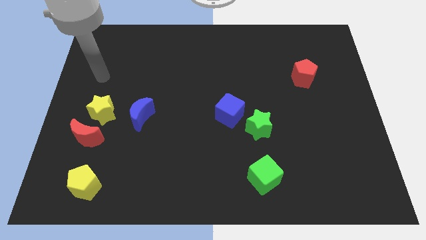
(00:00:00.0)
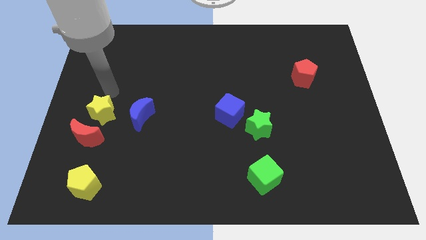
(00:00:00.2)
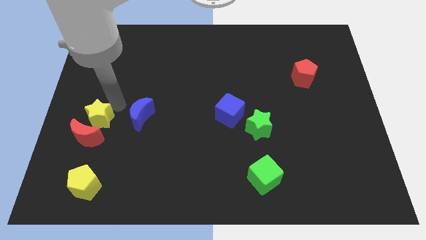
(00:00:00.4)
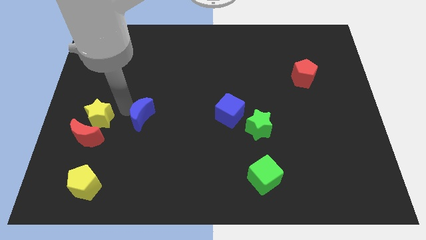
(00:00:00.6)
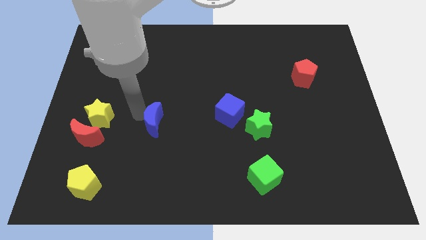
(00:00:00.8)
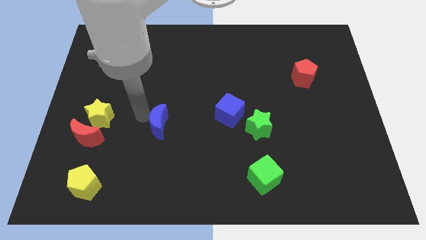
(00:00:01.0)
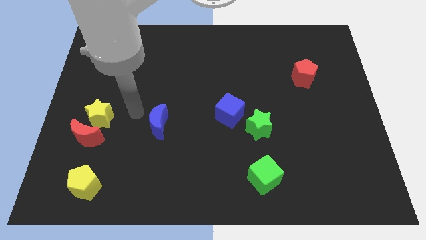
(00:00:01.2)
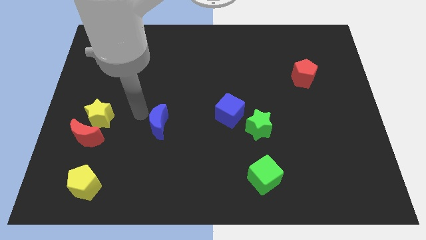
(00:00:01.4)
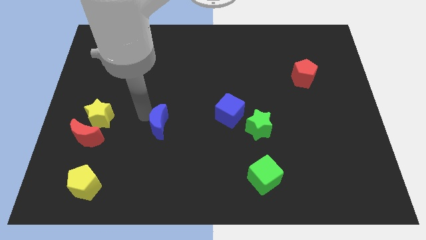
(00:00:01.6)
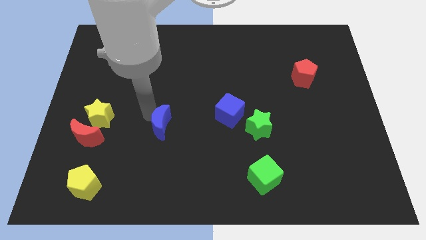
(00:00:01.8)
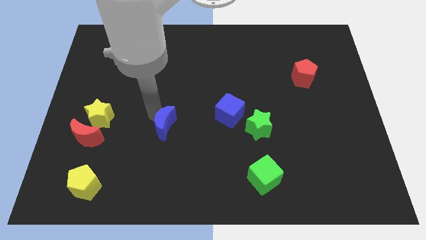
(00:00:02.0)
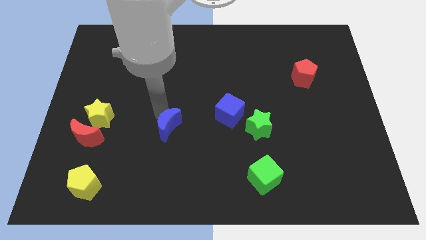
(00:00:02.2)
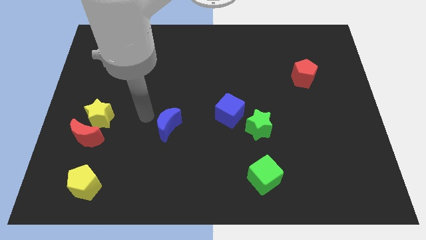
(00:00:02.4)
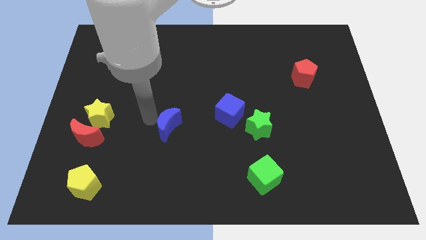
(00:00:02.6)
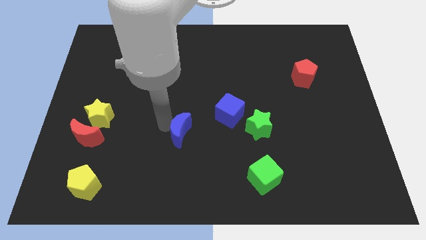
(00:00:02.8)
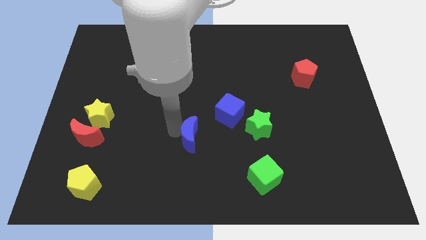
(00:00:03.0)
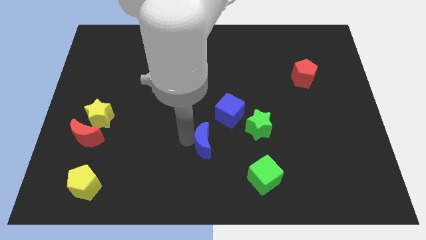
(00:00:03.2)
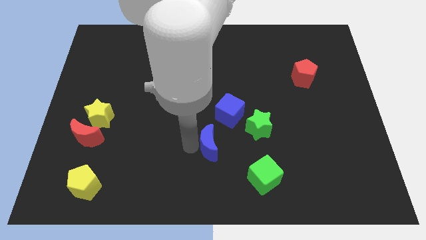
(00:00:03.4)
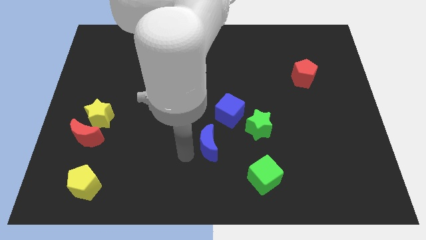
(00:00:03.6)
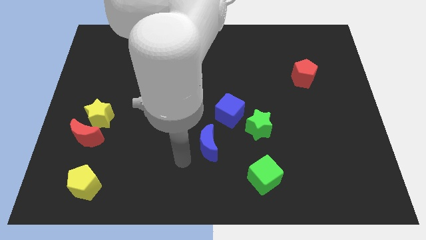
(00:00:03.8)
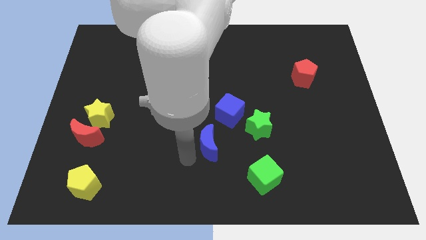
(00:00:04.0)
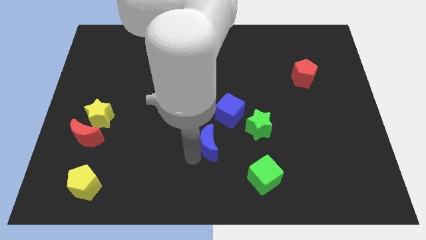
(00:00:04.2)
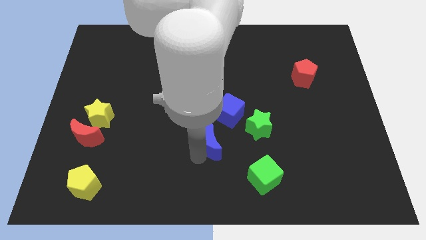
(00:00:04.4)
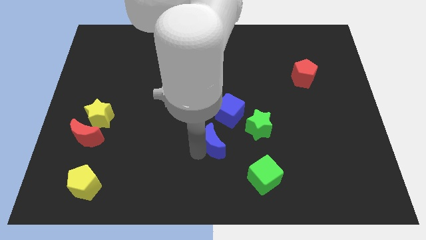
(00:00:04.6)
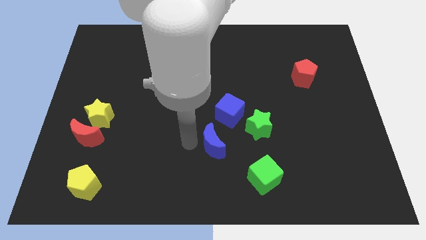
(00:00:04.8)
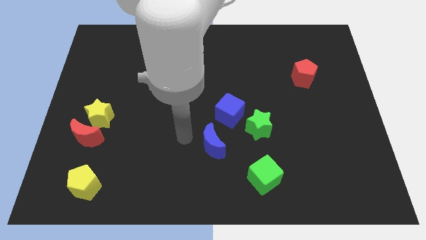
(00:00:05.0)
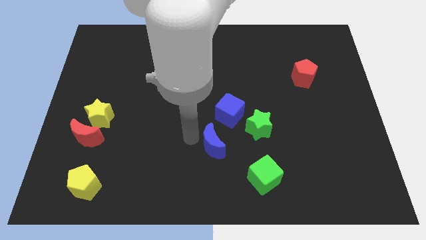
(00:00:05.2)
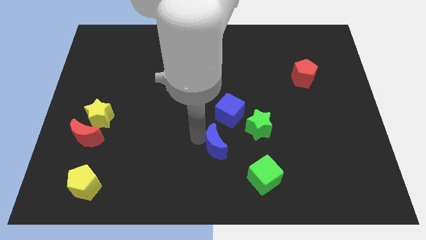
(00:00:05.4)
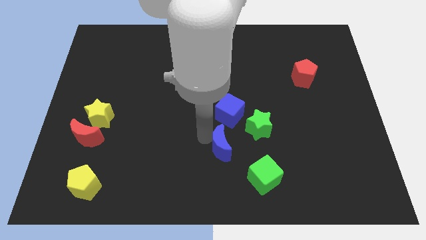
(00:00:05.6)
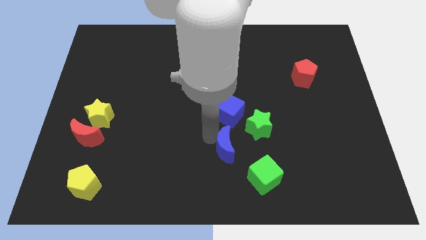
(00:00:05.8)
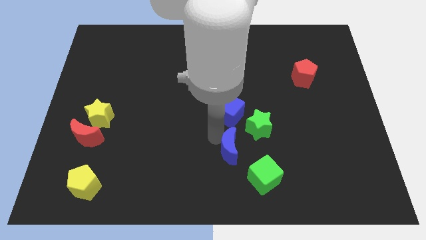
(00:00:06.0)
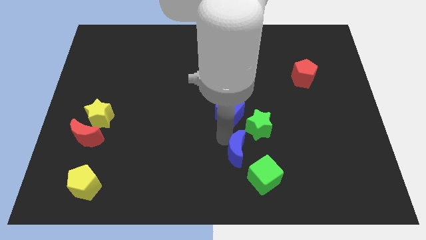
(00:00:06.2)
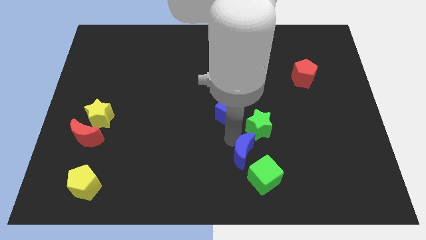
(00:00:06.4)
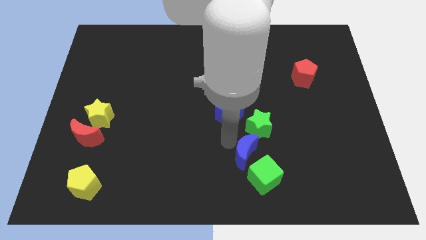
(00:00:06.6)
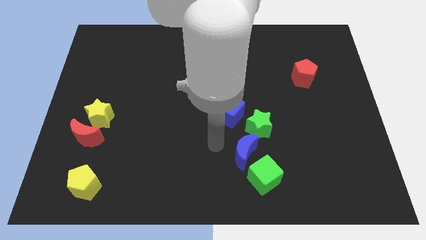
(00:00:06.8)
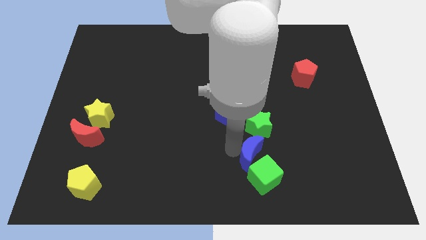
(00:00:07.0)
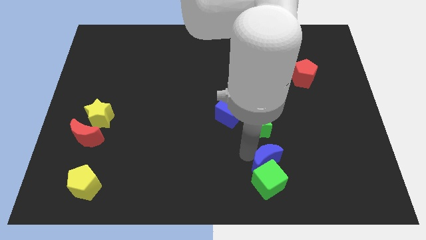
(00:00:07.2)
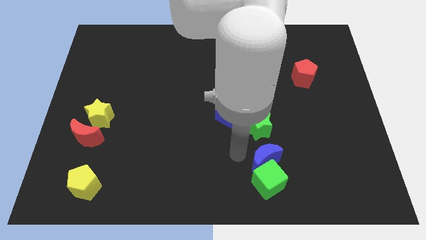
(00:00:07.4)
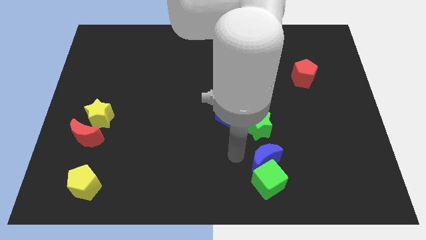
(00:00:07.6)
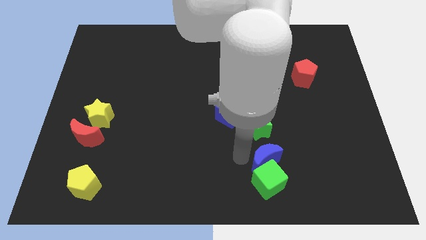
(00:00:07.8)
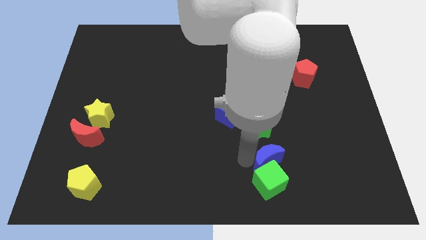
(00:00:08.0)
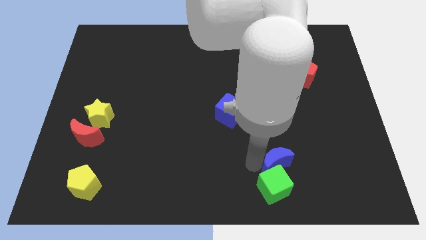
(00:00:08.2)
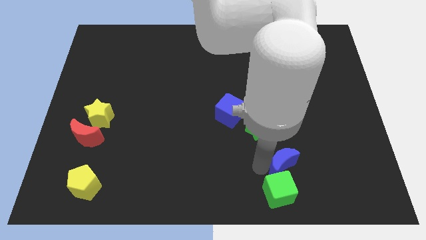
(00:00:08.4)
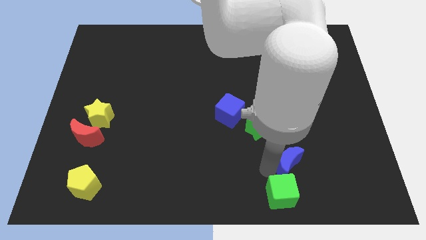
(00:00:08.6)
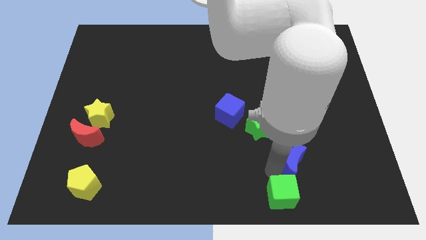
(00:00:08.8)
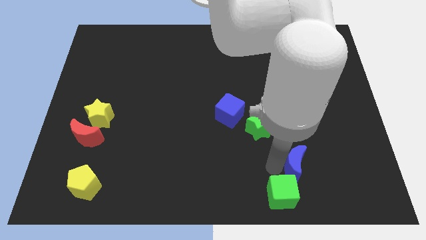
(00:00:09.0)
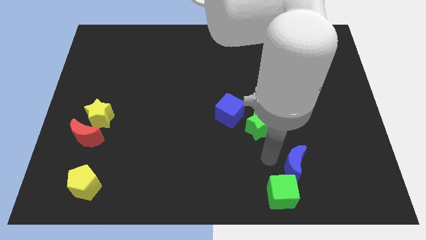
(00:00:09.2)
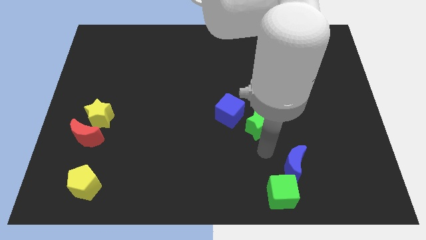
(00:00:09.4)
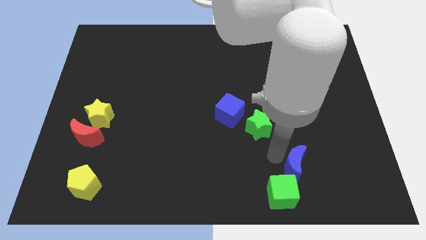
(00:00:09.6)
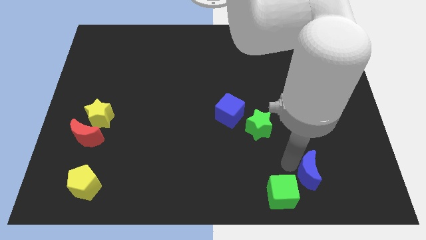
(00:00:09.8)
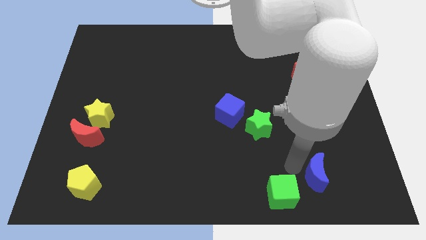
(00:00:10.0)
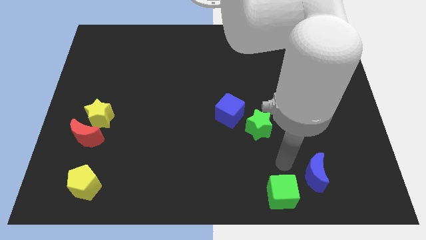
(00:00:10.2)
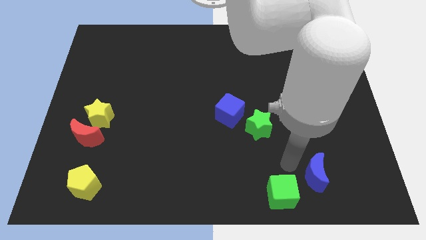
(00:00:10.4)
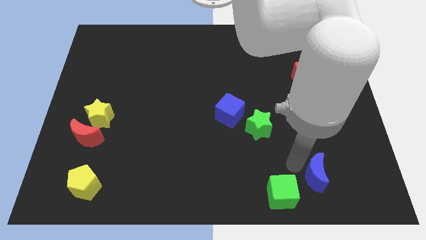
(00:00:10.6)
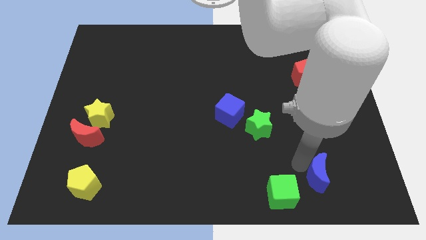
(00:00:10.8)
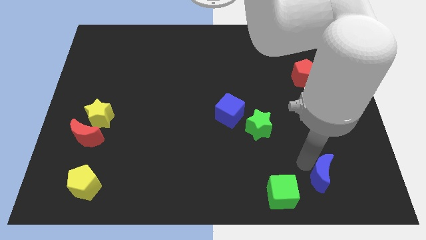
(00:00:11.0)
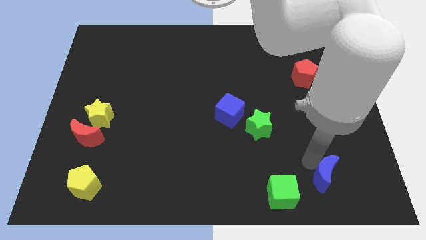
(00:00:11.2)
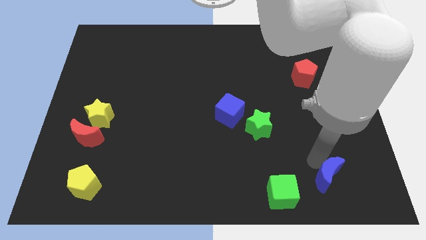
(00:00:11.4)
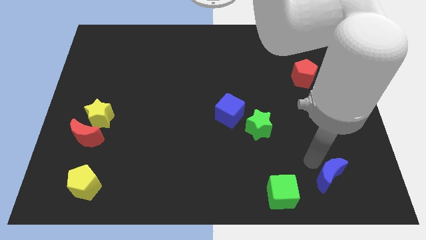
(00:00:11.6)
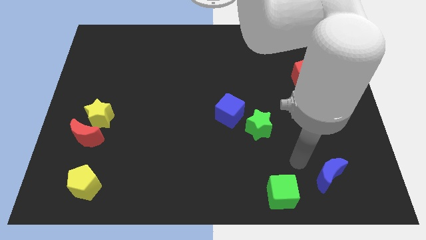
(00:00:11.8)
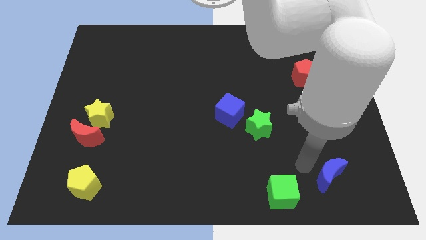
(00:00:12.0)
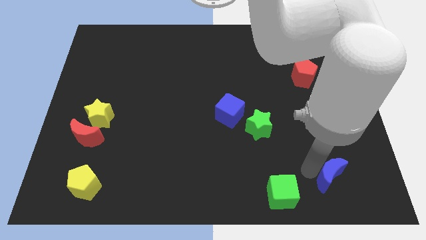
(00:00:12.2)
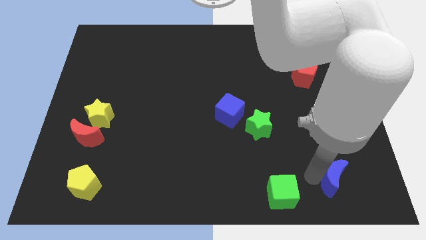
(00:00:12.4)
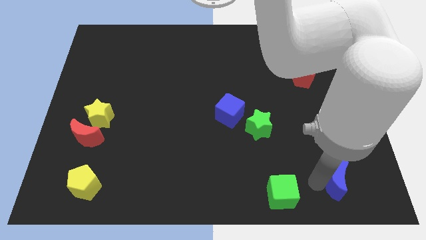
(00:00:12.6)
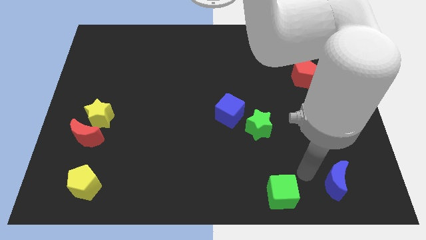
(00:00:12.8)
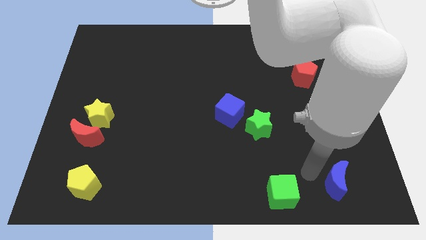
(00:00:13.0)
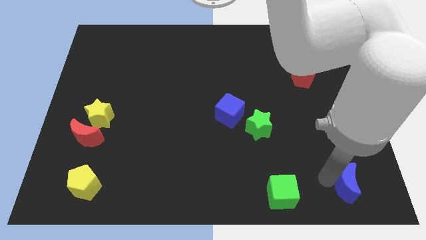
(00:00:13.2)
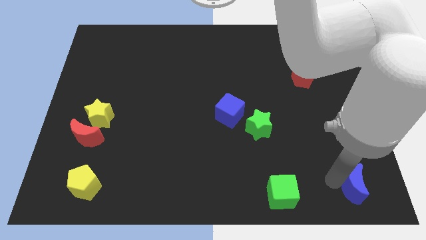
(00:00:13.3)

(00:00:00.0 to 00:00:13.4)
put the blue moon to the bottom right
